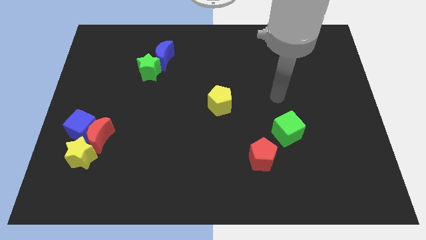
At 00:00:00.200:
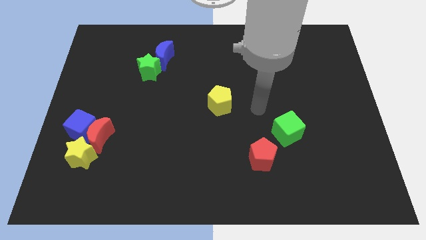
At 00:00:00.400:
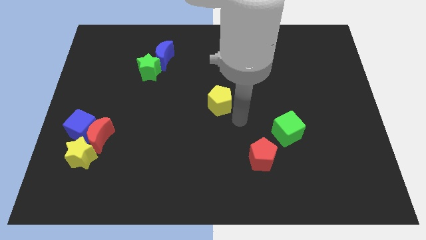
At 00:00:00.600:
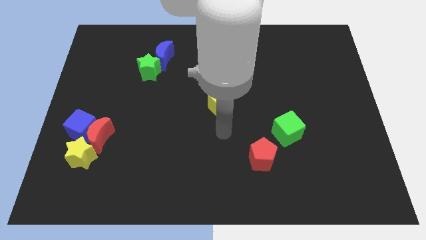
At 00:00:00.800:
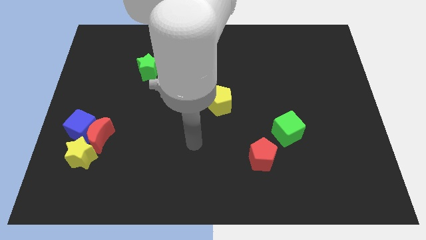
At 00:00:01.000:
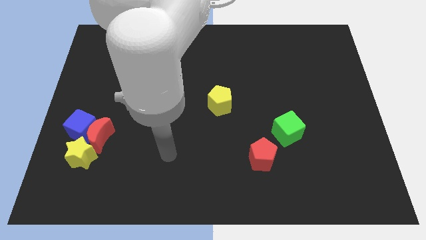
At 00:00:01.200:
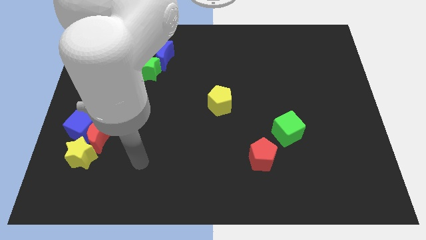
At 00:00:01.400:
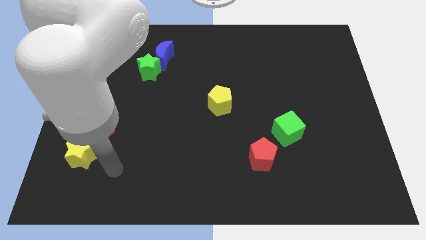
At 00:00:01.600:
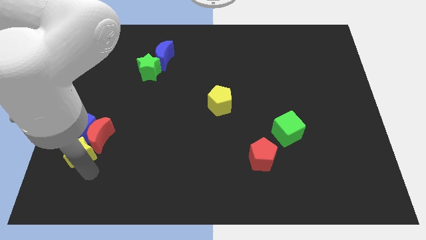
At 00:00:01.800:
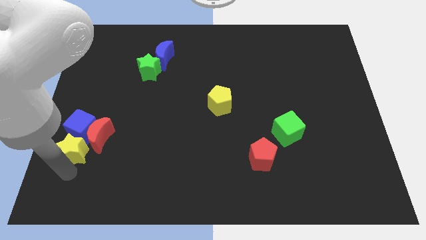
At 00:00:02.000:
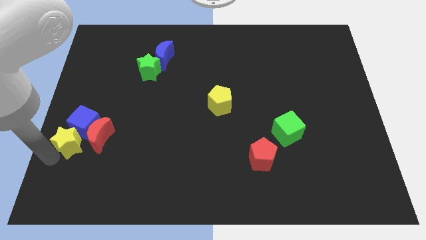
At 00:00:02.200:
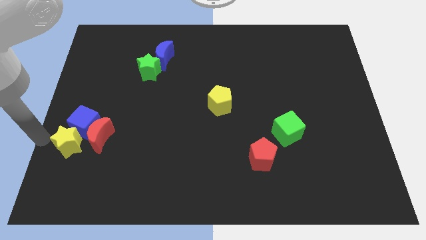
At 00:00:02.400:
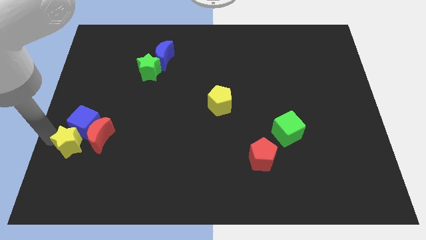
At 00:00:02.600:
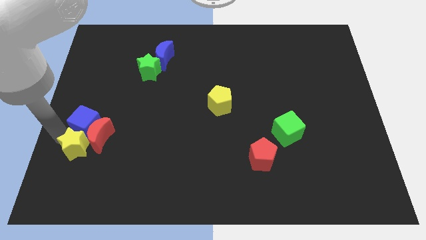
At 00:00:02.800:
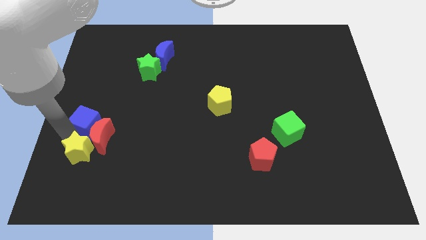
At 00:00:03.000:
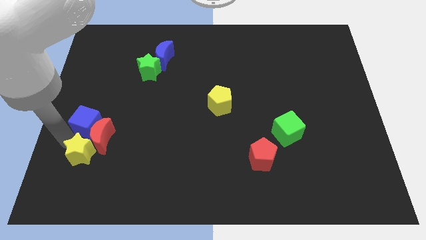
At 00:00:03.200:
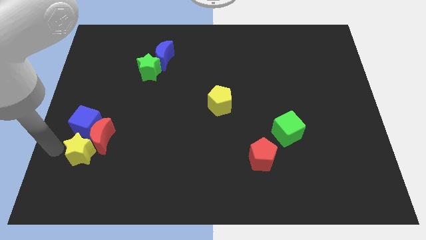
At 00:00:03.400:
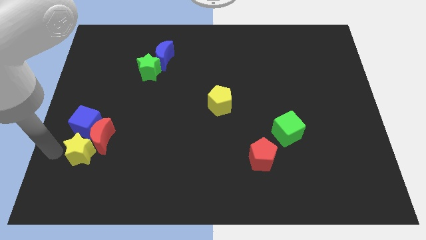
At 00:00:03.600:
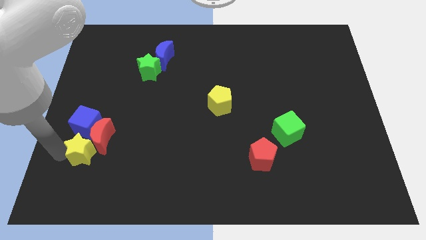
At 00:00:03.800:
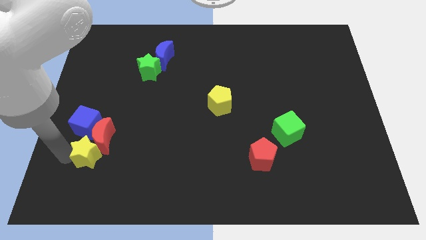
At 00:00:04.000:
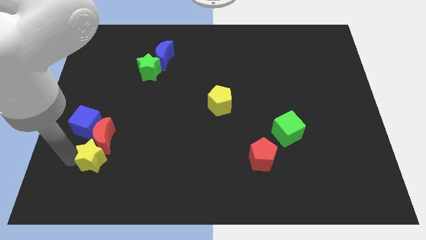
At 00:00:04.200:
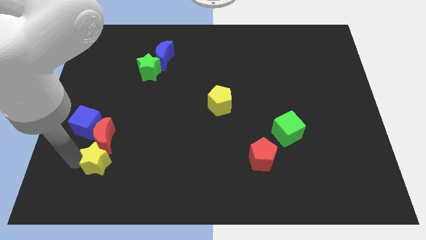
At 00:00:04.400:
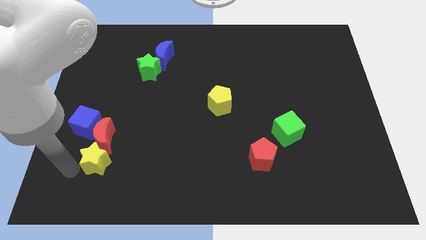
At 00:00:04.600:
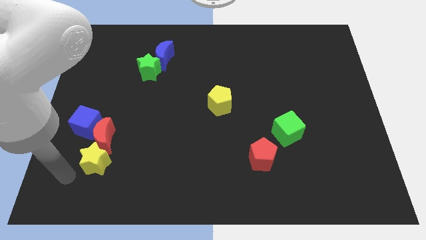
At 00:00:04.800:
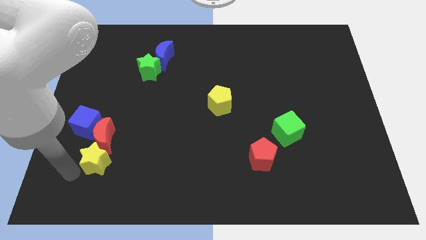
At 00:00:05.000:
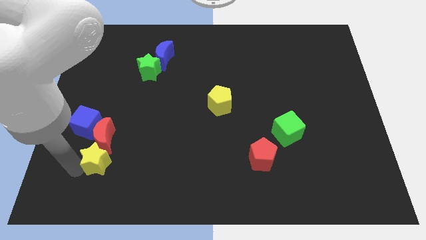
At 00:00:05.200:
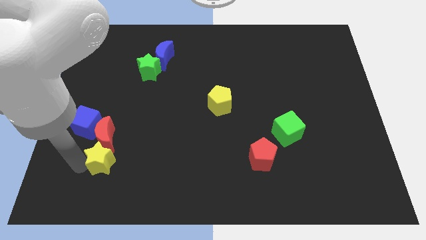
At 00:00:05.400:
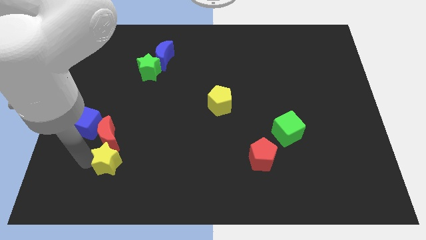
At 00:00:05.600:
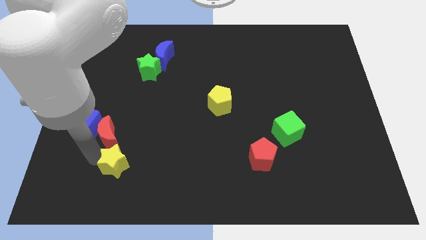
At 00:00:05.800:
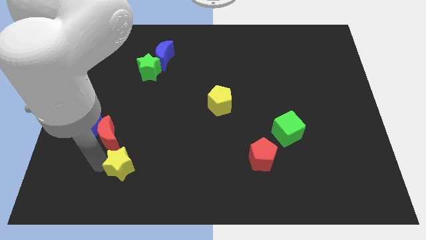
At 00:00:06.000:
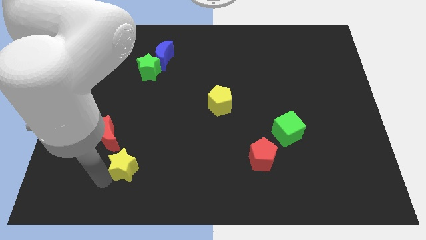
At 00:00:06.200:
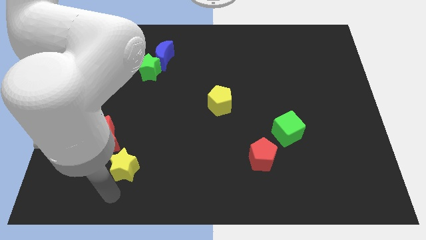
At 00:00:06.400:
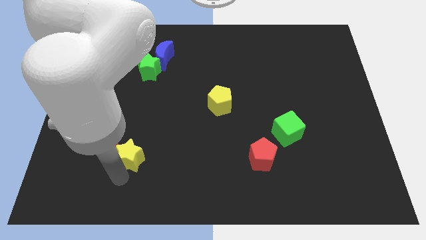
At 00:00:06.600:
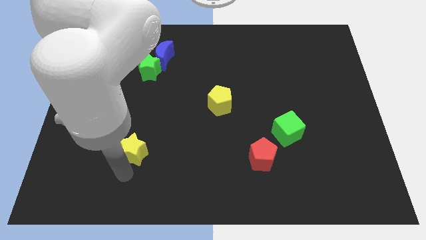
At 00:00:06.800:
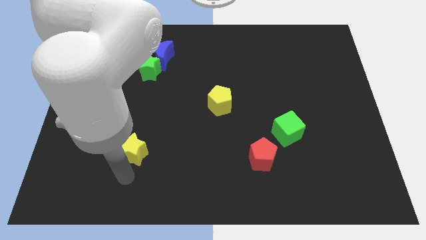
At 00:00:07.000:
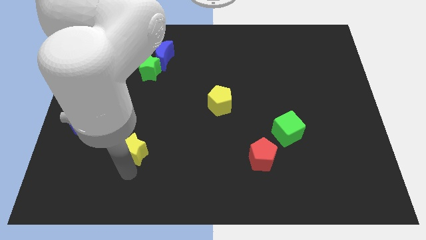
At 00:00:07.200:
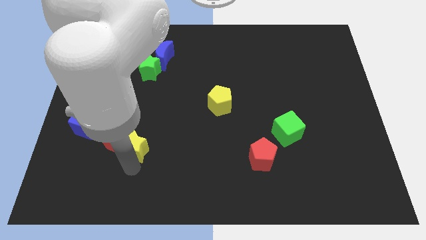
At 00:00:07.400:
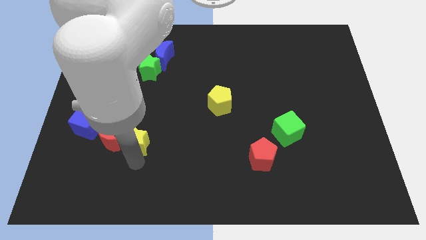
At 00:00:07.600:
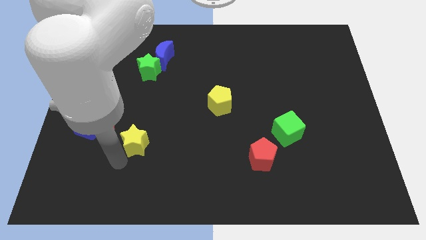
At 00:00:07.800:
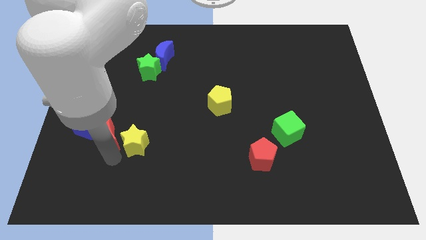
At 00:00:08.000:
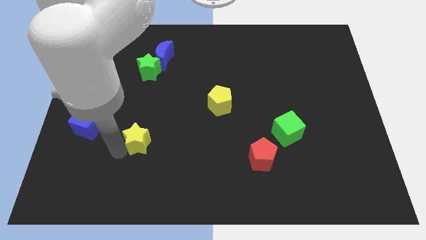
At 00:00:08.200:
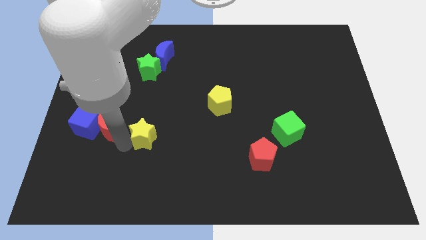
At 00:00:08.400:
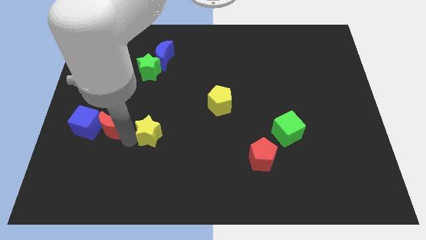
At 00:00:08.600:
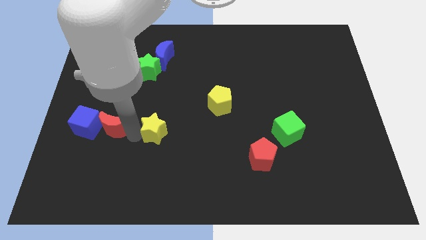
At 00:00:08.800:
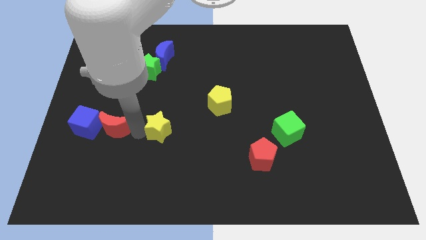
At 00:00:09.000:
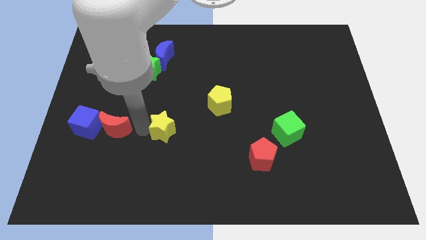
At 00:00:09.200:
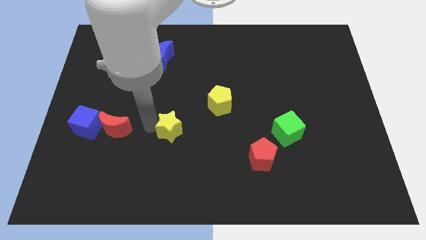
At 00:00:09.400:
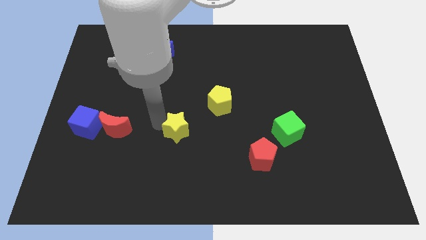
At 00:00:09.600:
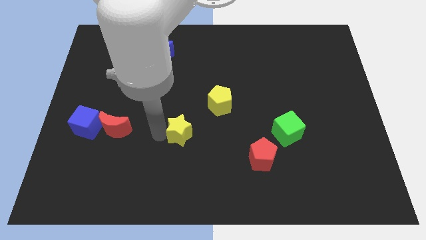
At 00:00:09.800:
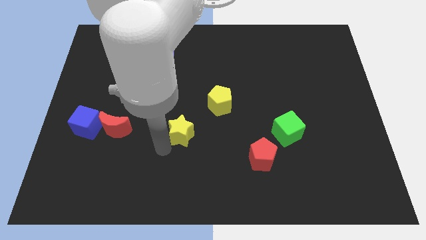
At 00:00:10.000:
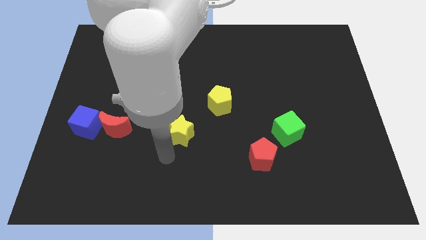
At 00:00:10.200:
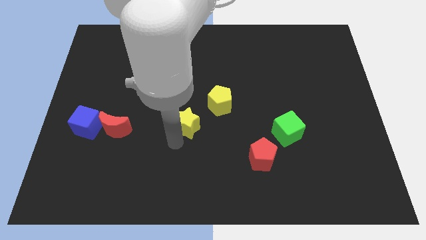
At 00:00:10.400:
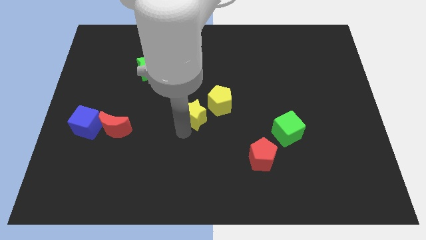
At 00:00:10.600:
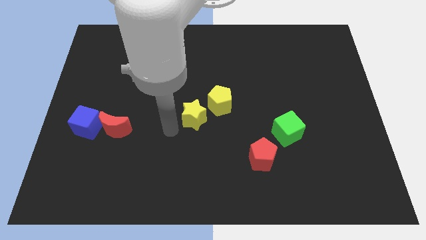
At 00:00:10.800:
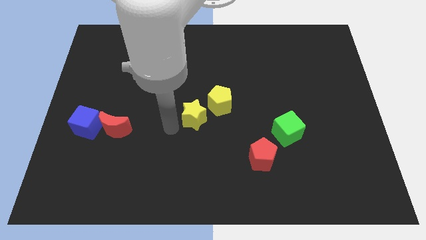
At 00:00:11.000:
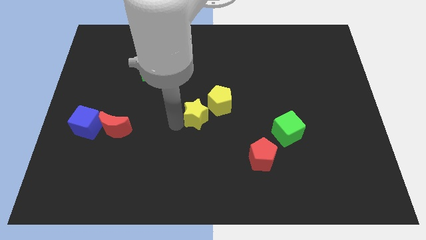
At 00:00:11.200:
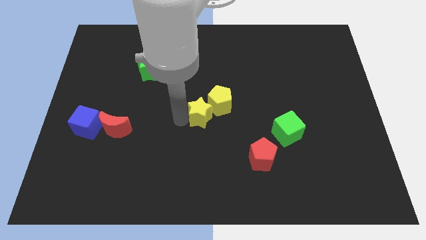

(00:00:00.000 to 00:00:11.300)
move the yellow star towards the yellow pentagon

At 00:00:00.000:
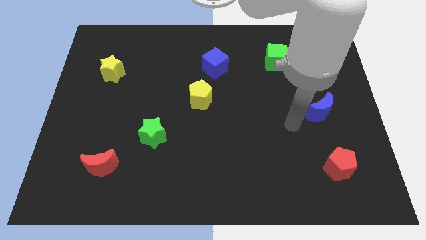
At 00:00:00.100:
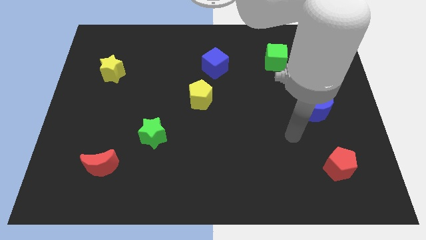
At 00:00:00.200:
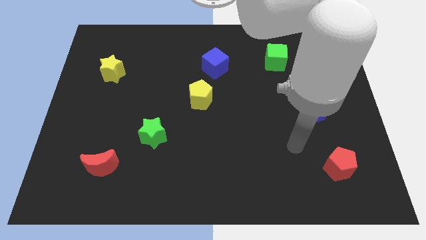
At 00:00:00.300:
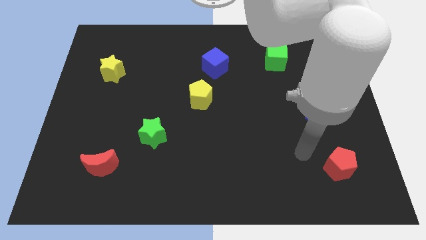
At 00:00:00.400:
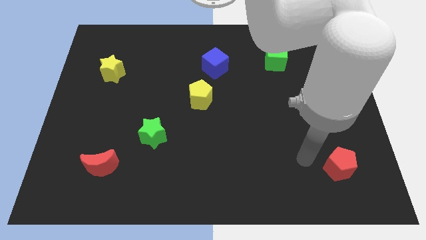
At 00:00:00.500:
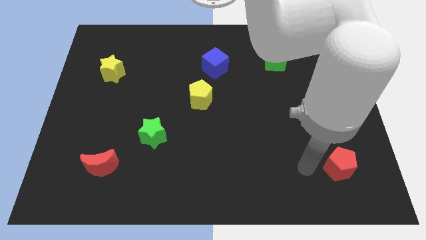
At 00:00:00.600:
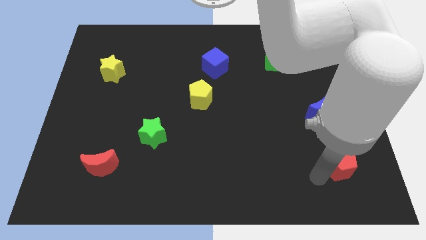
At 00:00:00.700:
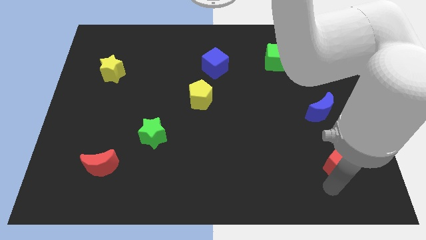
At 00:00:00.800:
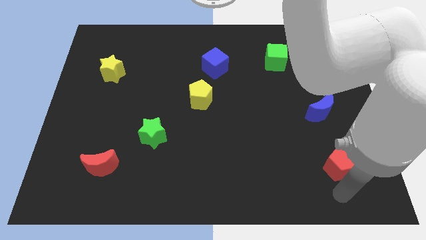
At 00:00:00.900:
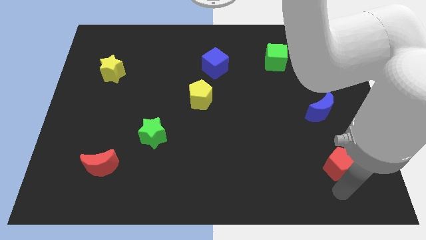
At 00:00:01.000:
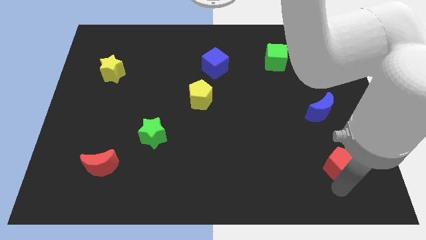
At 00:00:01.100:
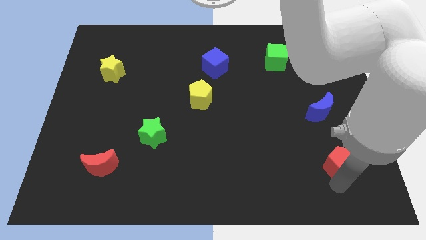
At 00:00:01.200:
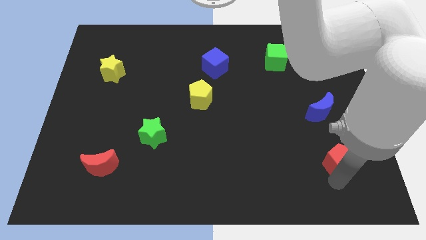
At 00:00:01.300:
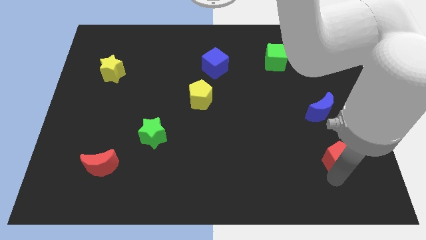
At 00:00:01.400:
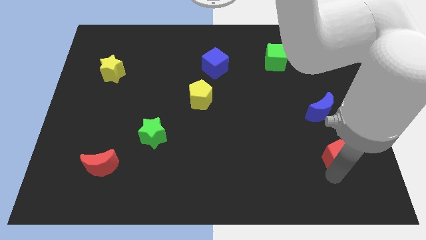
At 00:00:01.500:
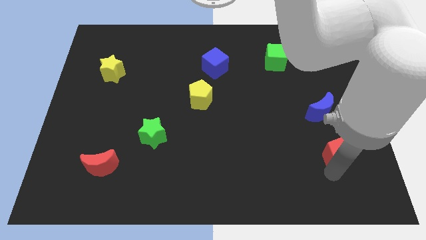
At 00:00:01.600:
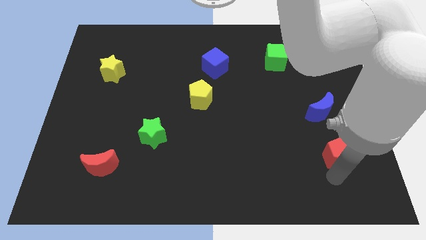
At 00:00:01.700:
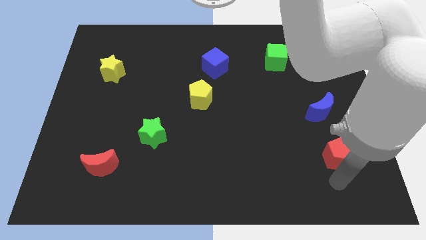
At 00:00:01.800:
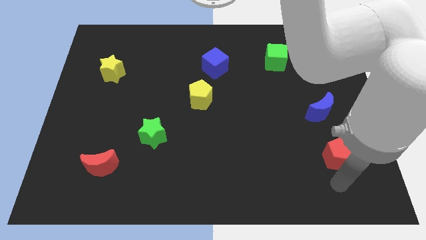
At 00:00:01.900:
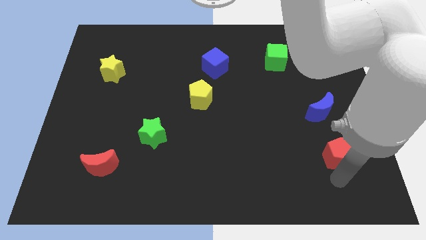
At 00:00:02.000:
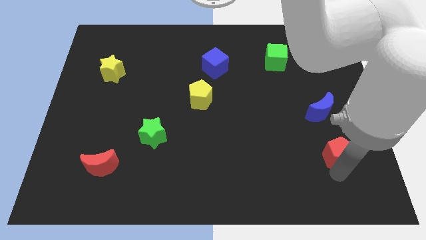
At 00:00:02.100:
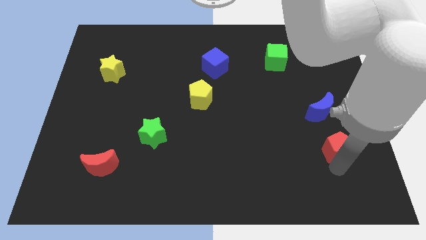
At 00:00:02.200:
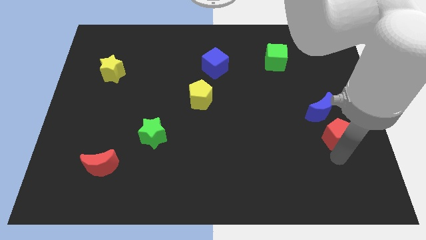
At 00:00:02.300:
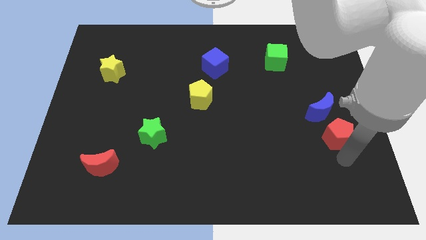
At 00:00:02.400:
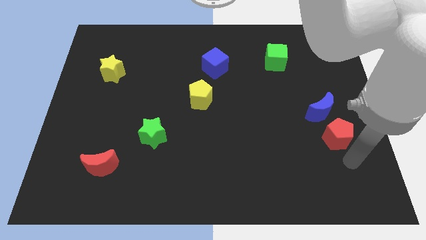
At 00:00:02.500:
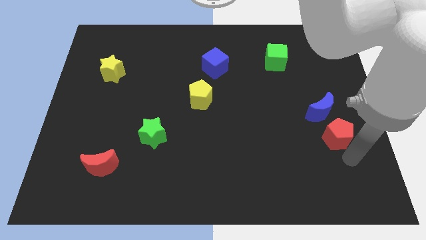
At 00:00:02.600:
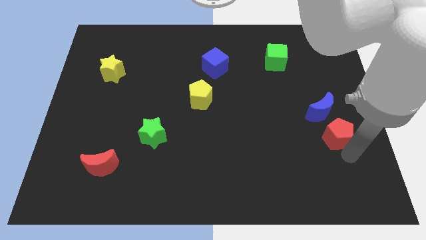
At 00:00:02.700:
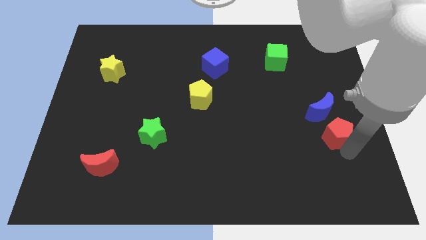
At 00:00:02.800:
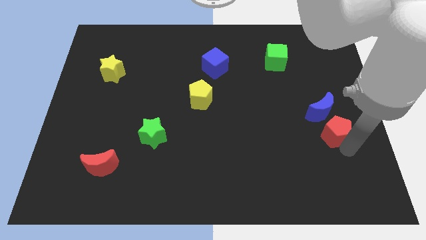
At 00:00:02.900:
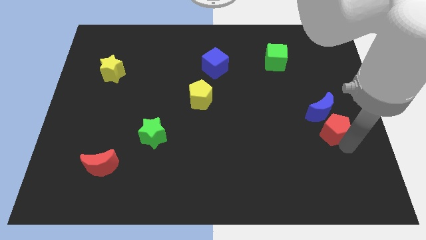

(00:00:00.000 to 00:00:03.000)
push the red pentagon close to the blue moon
